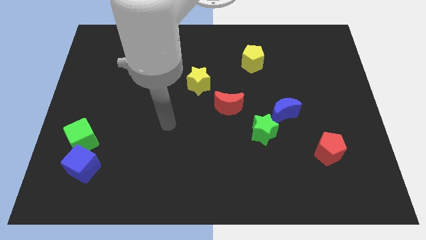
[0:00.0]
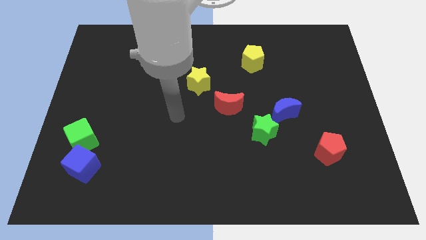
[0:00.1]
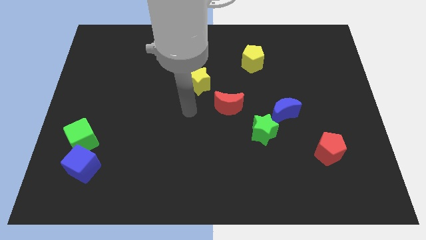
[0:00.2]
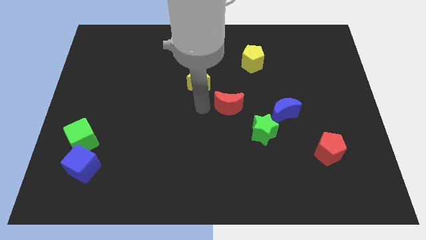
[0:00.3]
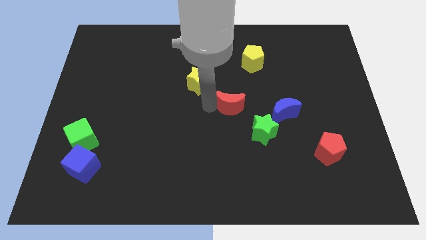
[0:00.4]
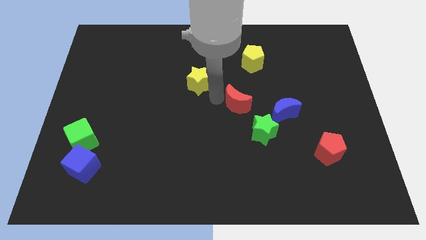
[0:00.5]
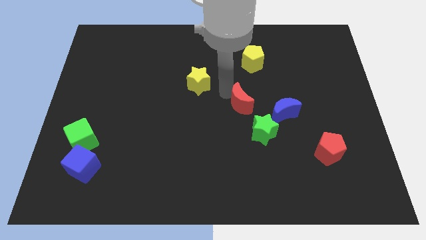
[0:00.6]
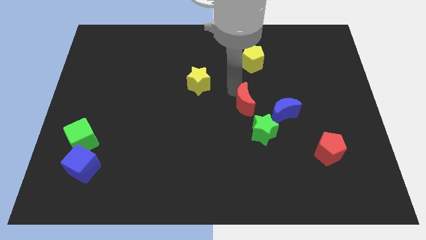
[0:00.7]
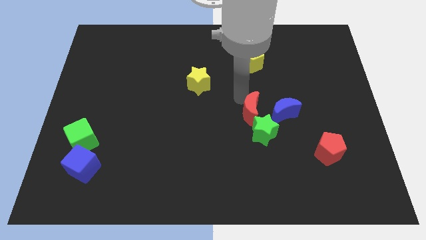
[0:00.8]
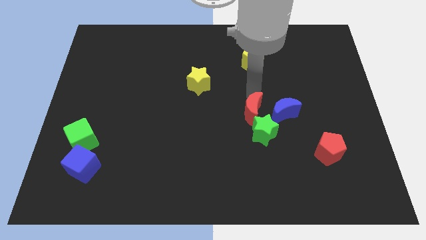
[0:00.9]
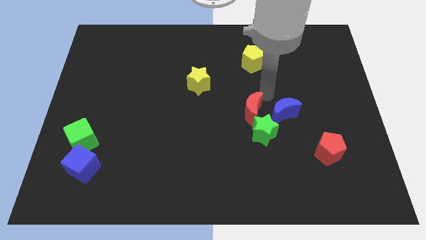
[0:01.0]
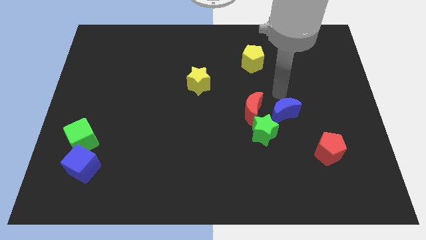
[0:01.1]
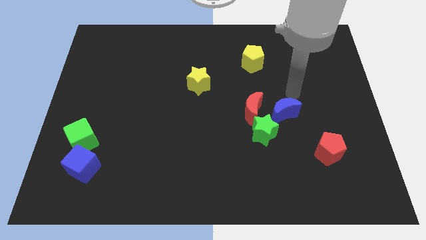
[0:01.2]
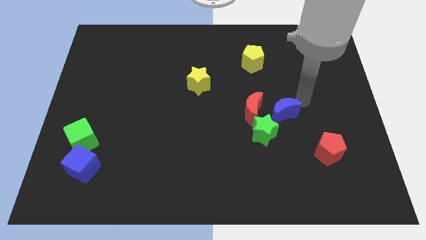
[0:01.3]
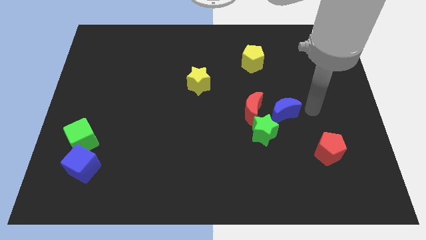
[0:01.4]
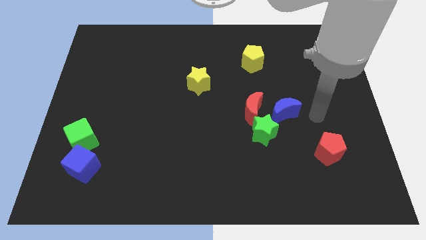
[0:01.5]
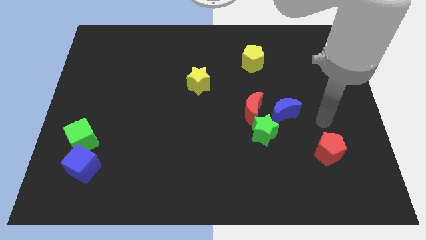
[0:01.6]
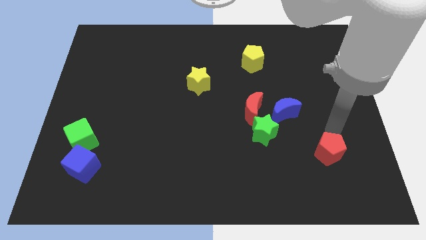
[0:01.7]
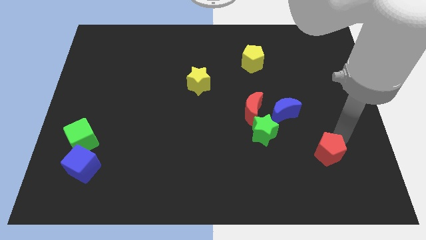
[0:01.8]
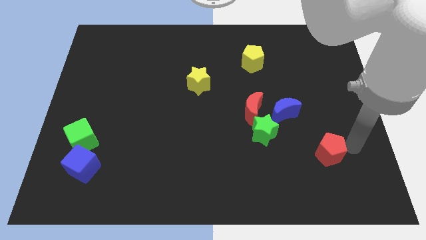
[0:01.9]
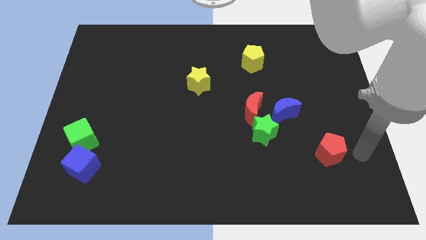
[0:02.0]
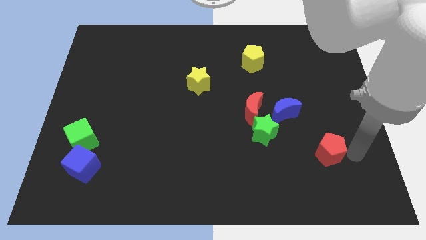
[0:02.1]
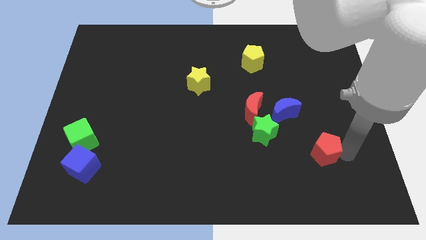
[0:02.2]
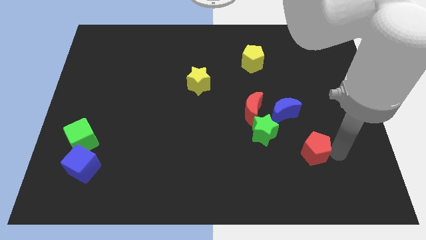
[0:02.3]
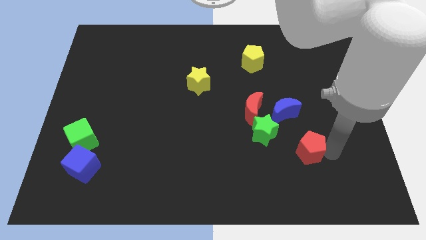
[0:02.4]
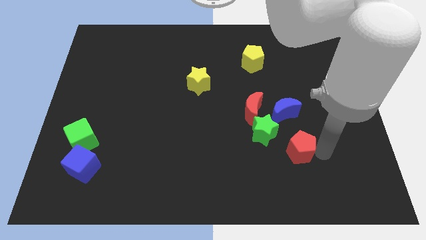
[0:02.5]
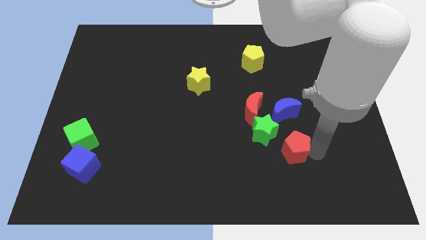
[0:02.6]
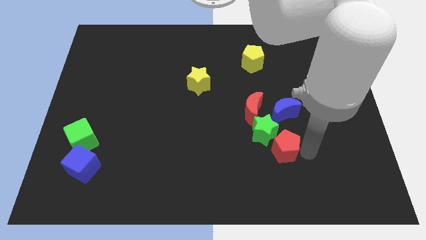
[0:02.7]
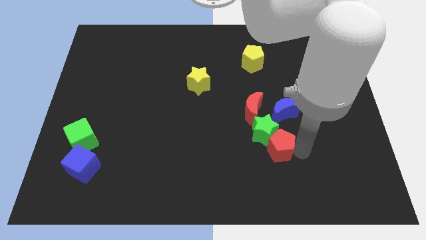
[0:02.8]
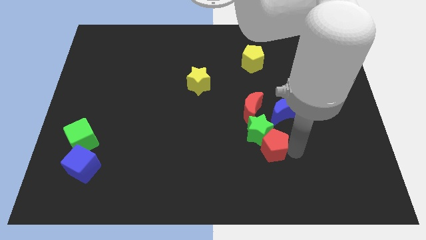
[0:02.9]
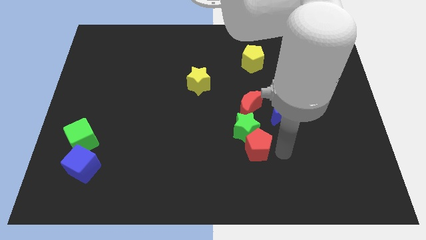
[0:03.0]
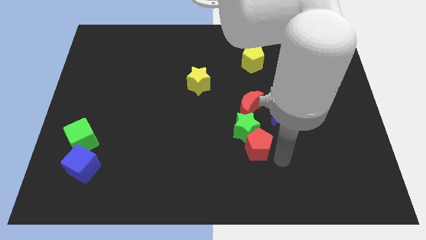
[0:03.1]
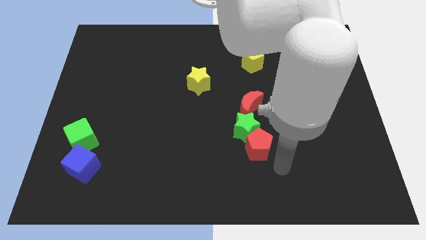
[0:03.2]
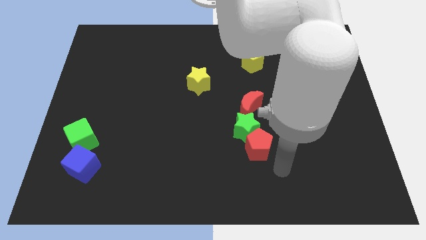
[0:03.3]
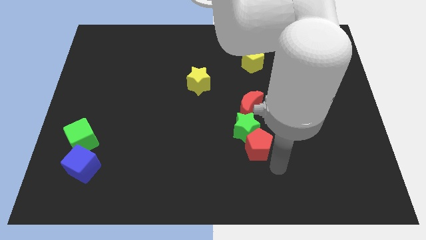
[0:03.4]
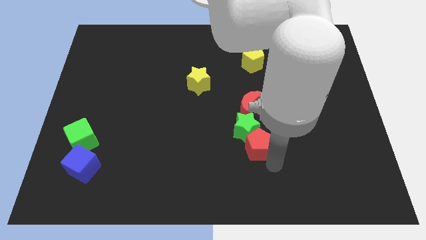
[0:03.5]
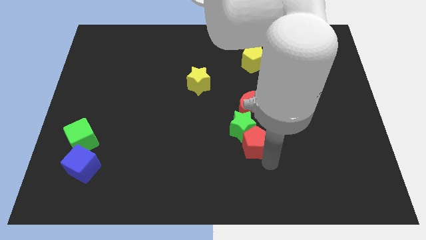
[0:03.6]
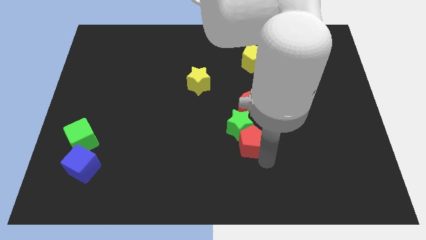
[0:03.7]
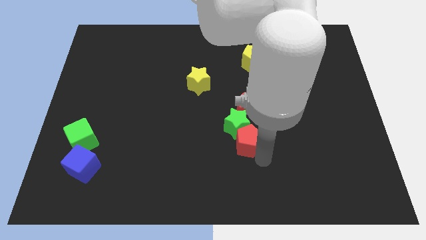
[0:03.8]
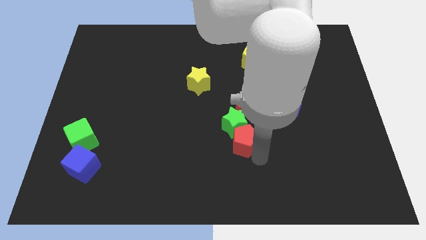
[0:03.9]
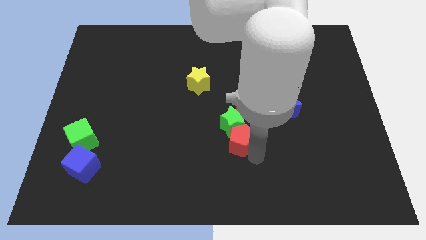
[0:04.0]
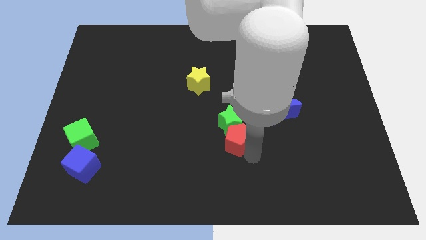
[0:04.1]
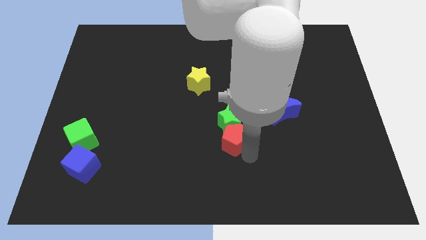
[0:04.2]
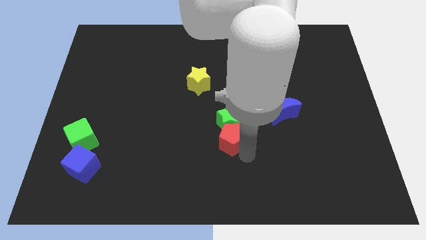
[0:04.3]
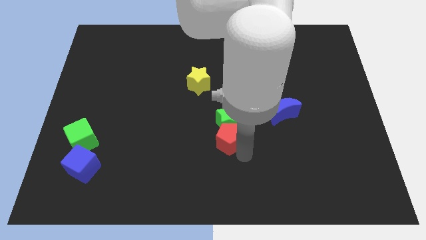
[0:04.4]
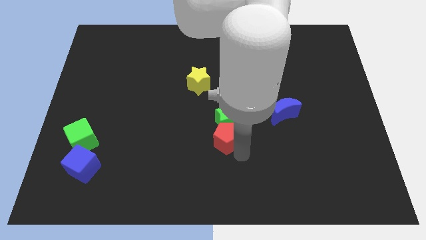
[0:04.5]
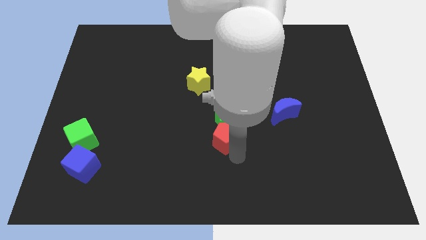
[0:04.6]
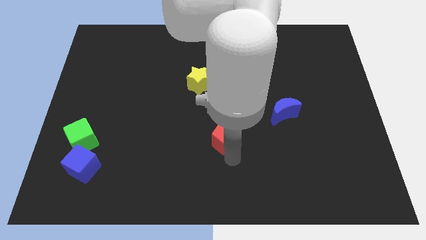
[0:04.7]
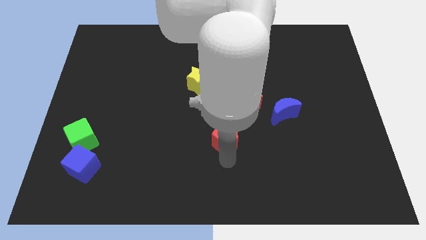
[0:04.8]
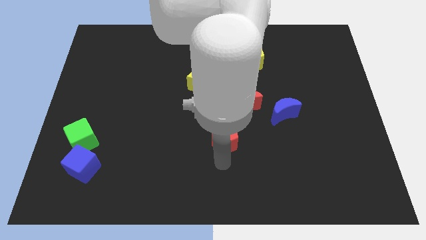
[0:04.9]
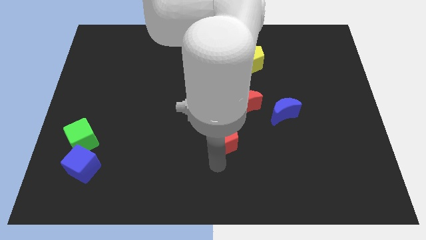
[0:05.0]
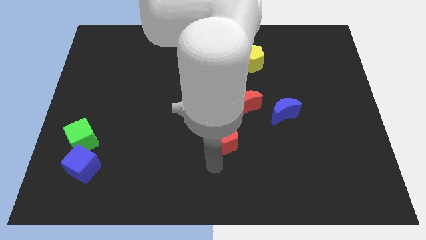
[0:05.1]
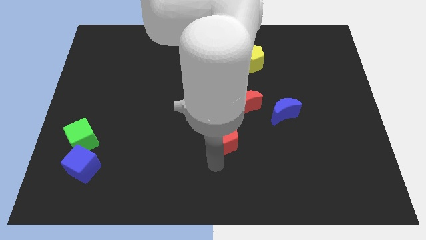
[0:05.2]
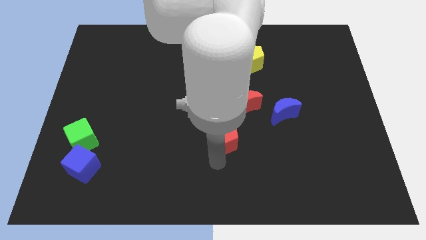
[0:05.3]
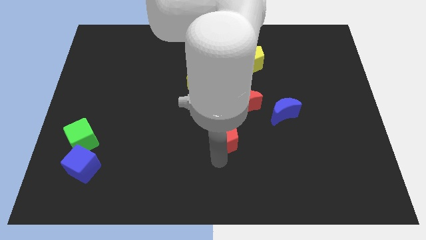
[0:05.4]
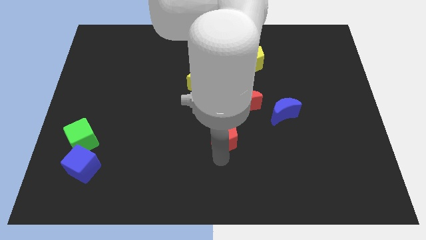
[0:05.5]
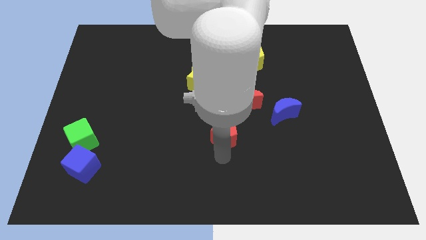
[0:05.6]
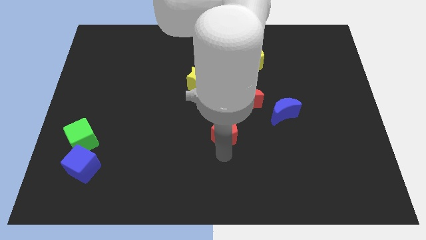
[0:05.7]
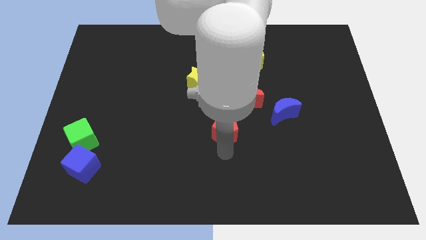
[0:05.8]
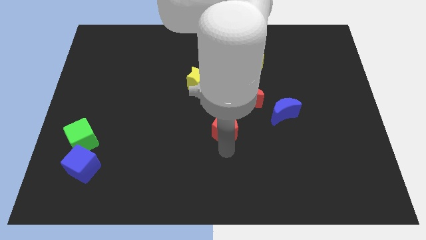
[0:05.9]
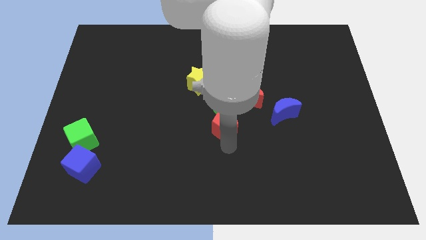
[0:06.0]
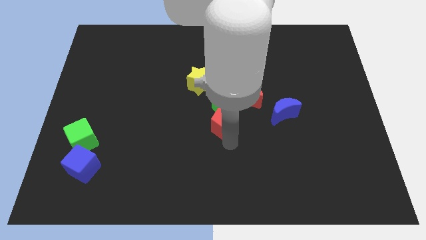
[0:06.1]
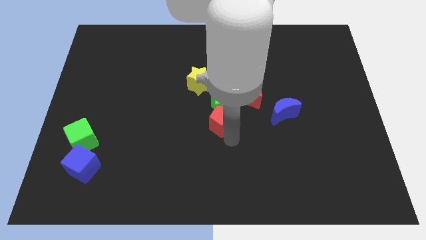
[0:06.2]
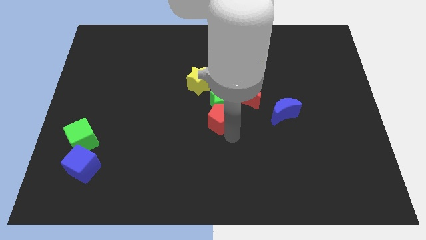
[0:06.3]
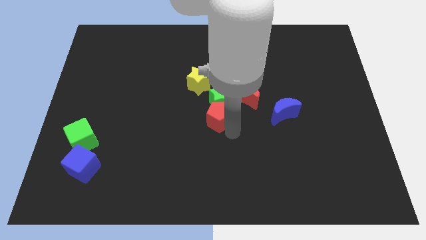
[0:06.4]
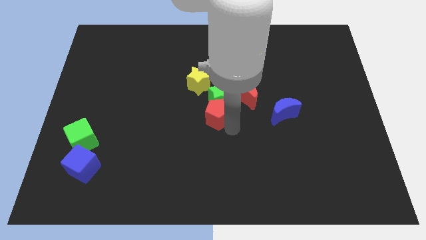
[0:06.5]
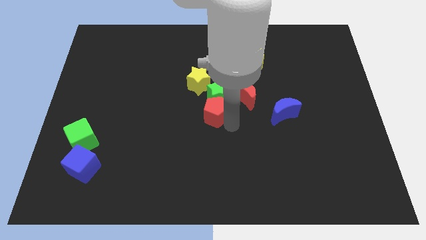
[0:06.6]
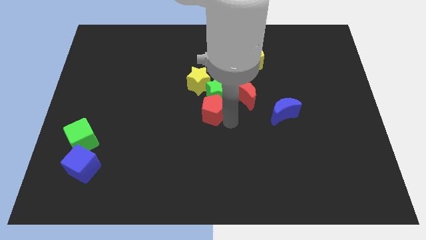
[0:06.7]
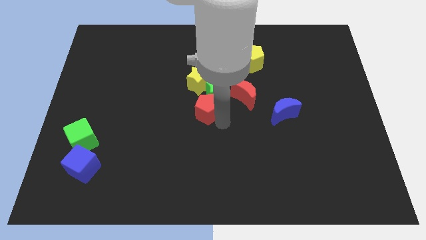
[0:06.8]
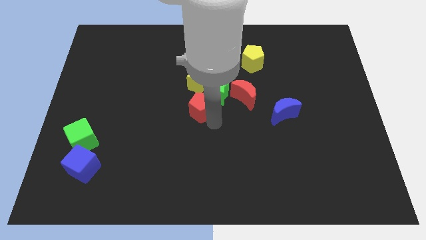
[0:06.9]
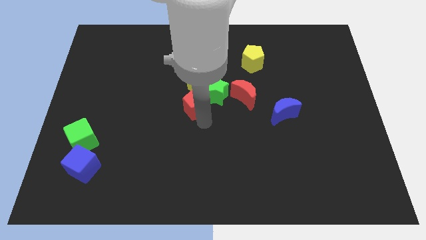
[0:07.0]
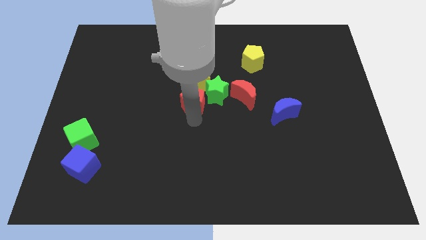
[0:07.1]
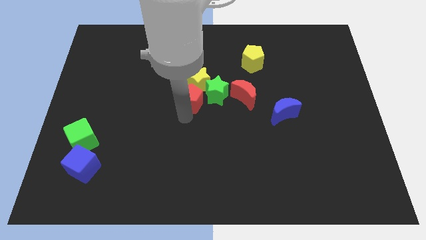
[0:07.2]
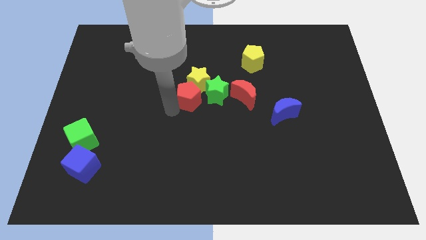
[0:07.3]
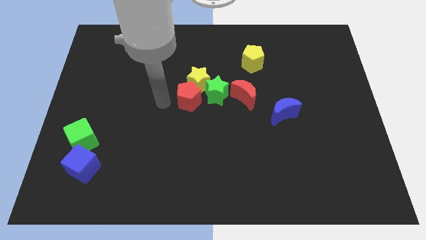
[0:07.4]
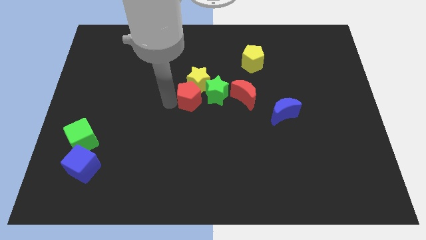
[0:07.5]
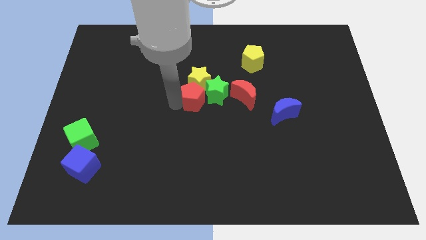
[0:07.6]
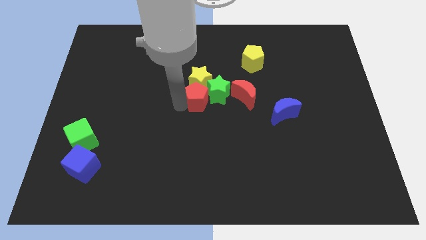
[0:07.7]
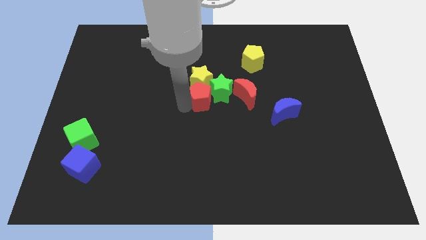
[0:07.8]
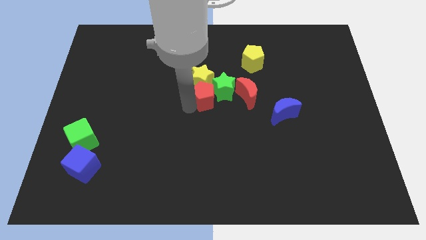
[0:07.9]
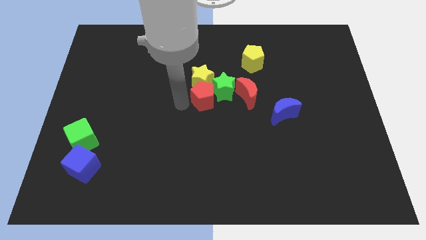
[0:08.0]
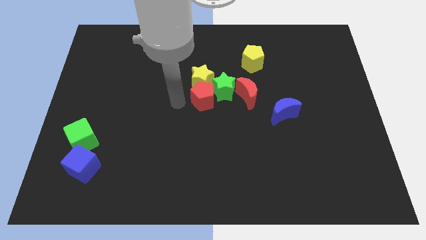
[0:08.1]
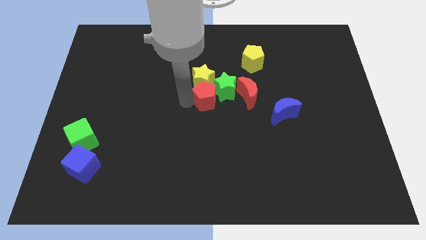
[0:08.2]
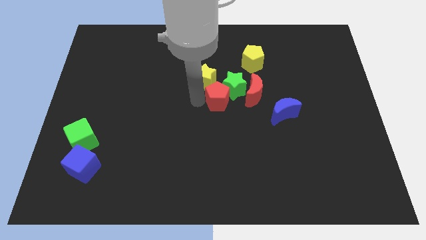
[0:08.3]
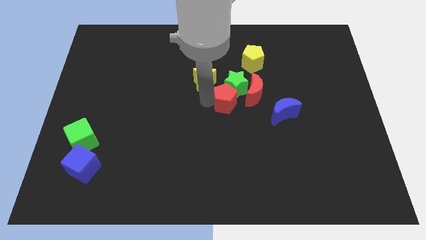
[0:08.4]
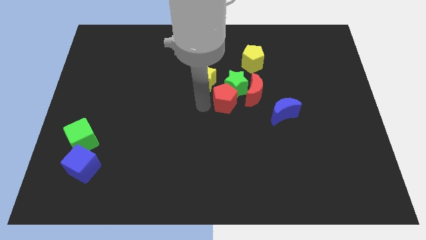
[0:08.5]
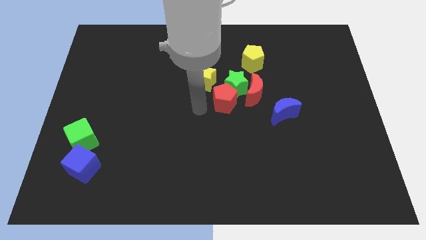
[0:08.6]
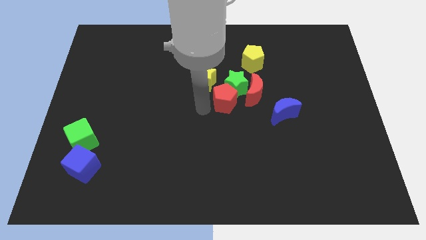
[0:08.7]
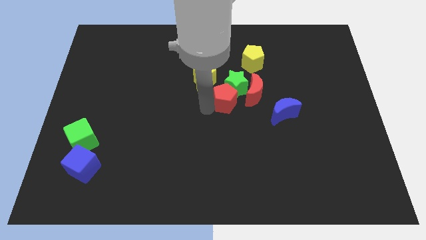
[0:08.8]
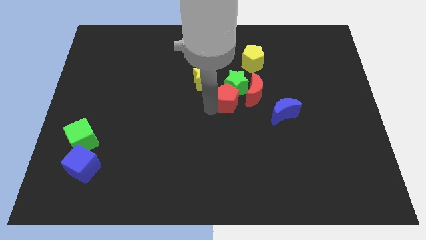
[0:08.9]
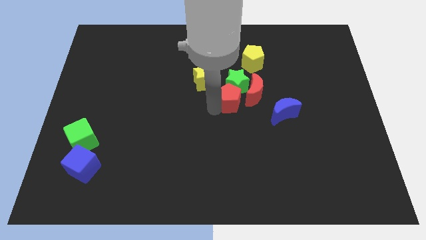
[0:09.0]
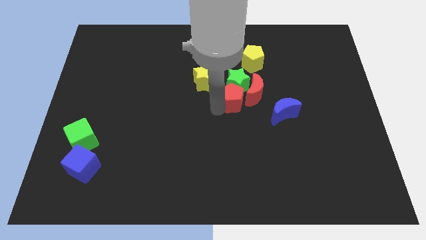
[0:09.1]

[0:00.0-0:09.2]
put the red pentagon next to the red moon
